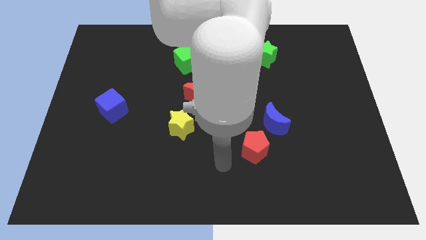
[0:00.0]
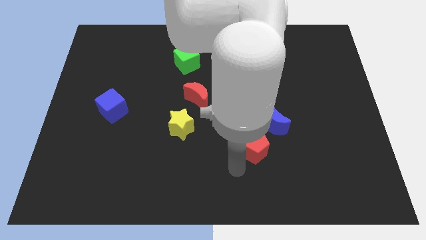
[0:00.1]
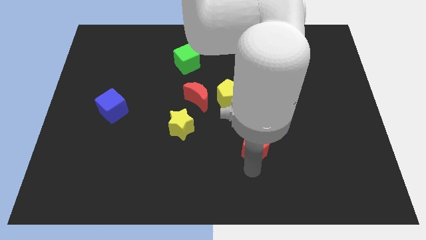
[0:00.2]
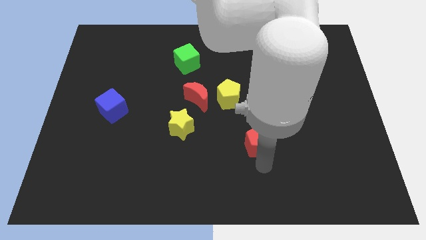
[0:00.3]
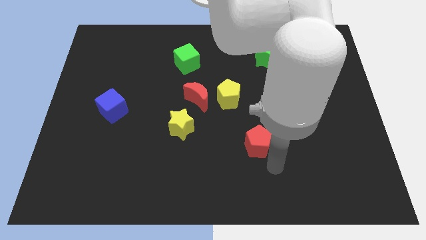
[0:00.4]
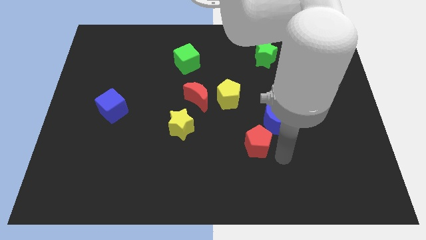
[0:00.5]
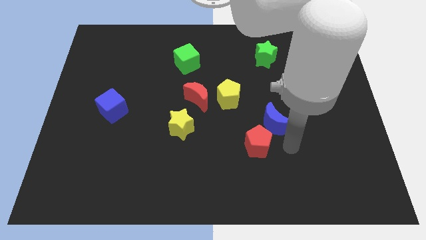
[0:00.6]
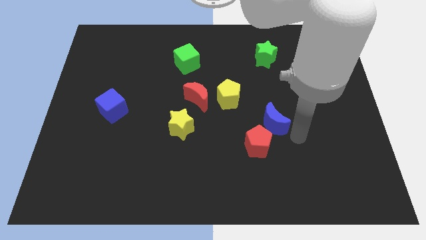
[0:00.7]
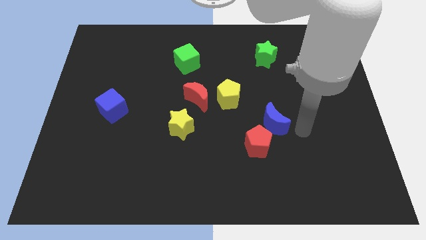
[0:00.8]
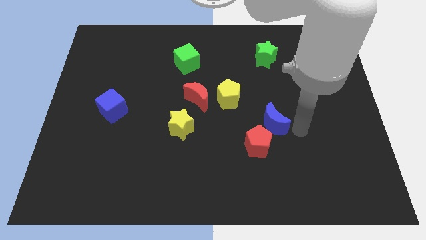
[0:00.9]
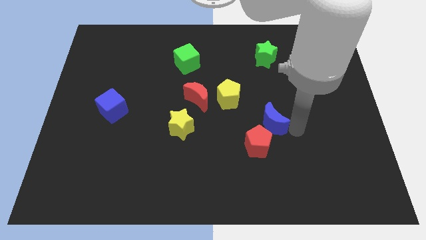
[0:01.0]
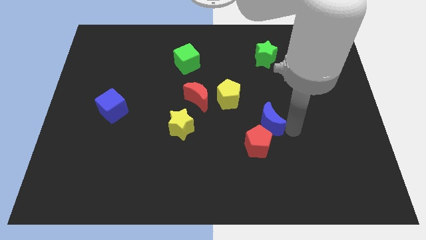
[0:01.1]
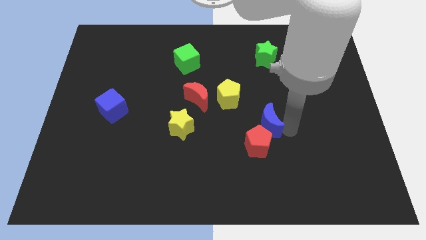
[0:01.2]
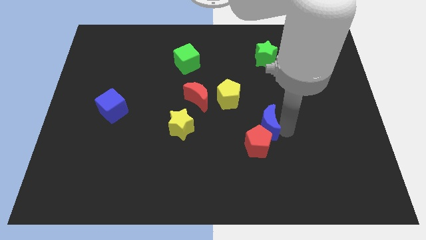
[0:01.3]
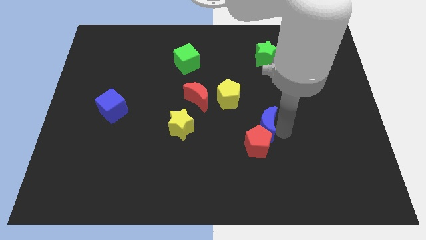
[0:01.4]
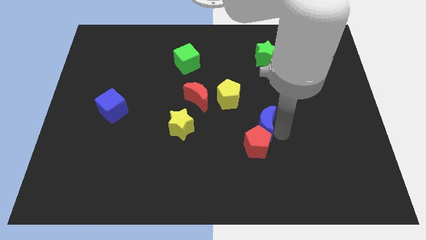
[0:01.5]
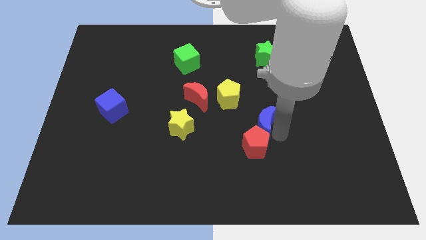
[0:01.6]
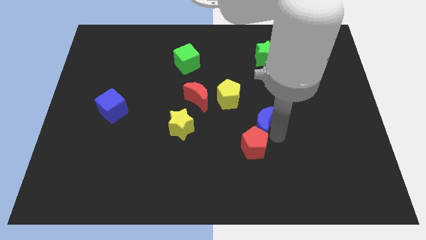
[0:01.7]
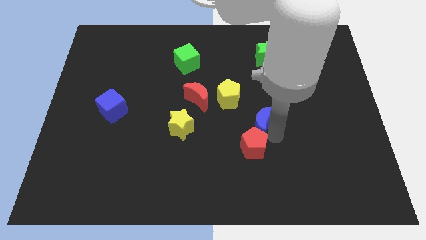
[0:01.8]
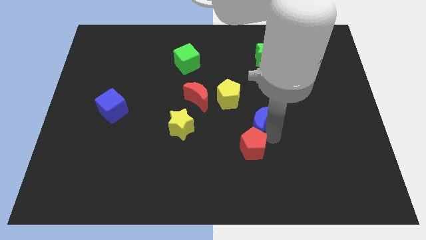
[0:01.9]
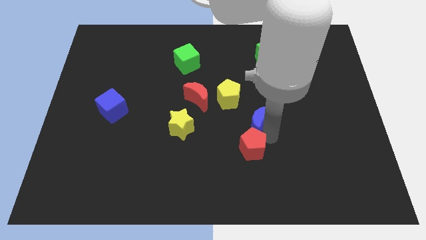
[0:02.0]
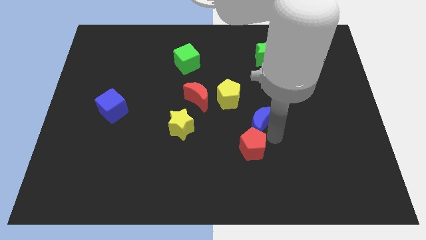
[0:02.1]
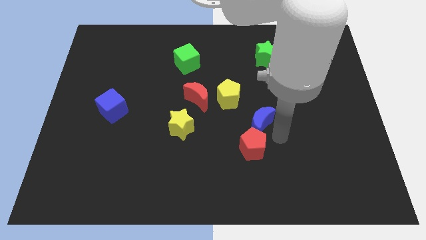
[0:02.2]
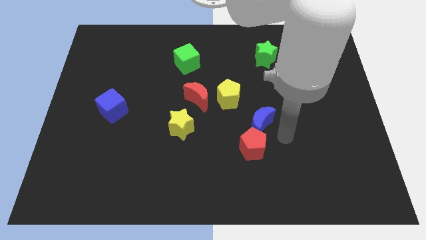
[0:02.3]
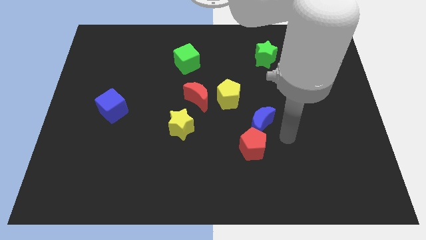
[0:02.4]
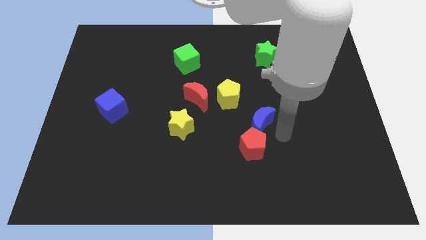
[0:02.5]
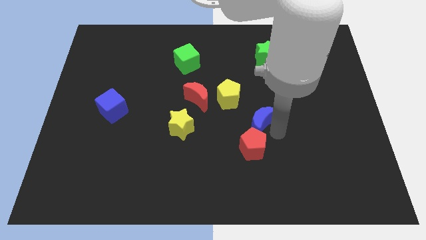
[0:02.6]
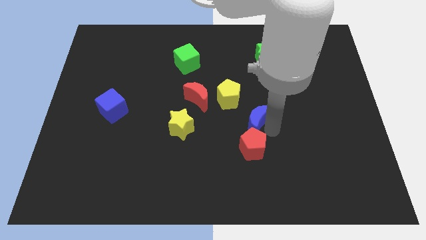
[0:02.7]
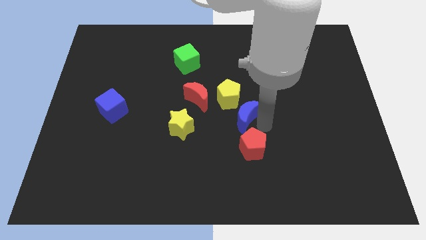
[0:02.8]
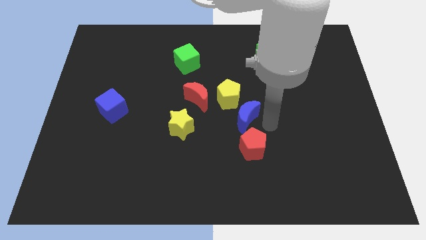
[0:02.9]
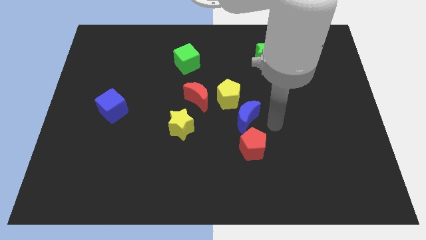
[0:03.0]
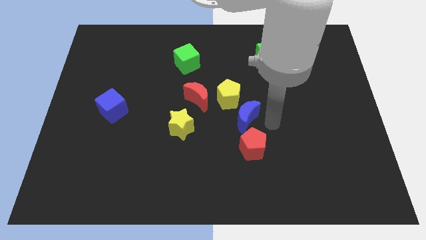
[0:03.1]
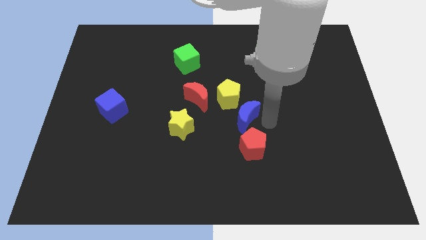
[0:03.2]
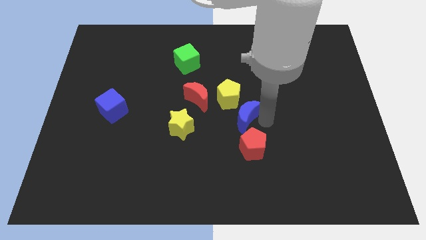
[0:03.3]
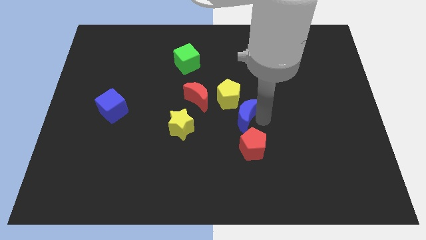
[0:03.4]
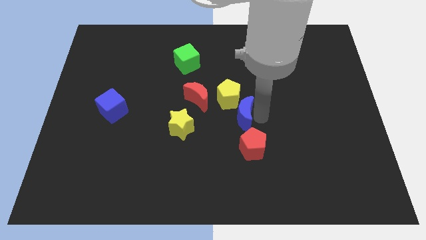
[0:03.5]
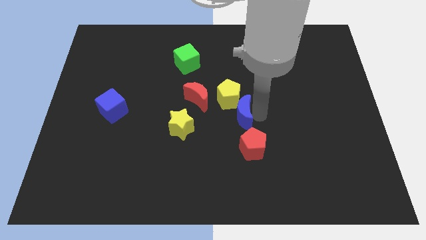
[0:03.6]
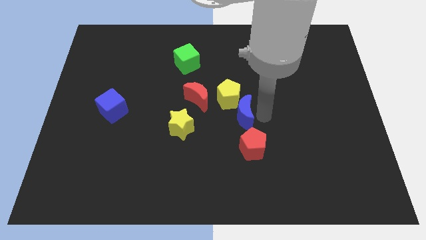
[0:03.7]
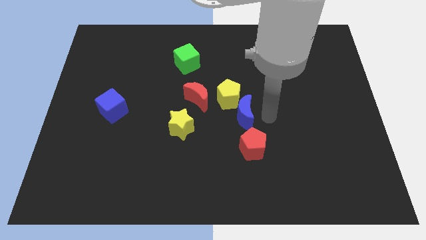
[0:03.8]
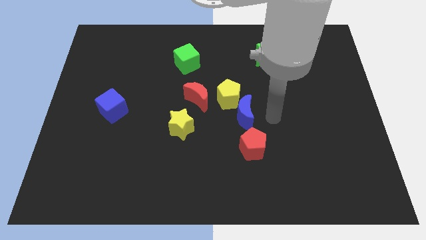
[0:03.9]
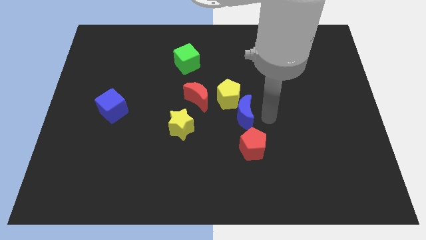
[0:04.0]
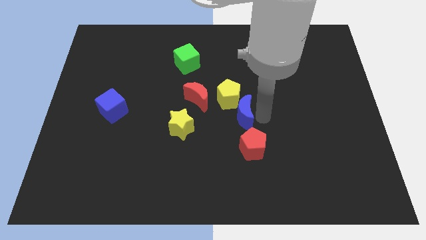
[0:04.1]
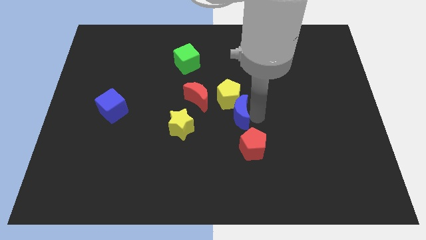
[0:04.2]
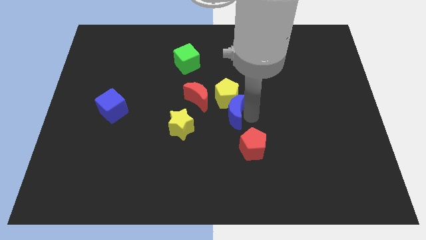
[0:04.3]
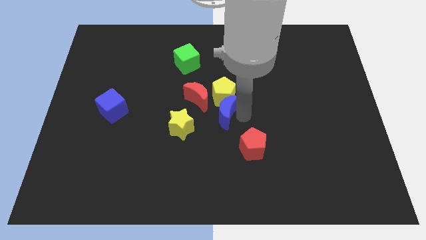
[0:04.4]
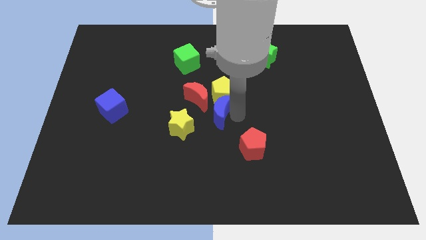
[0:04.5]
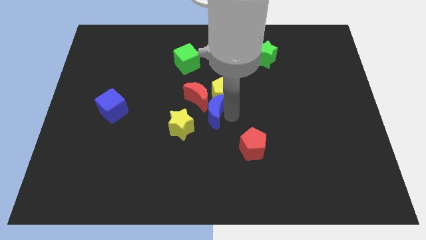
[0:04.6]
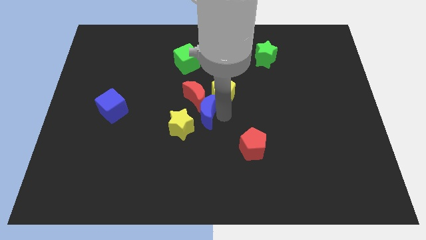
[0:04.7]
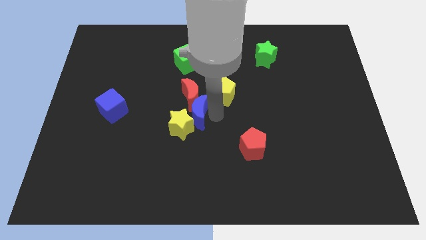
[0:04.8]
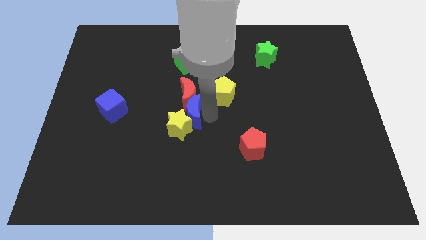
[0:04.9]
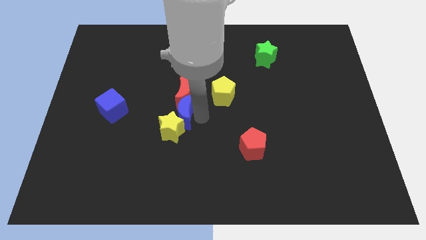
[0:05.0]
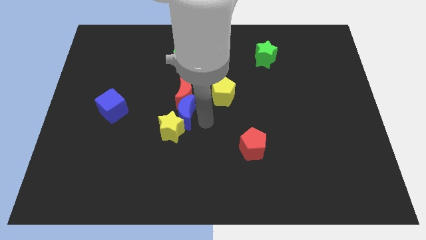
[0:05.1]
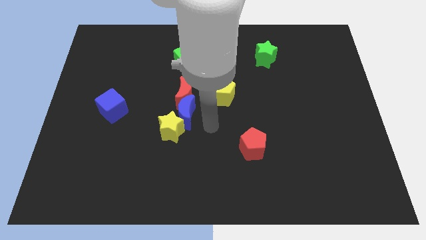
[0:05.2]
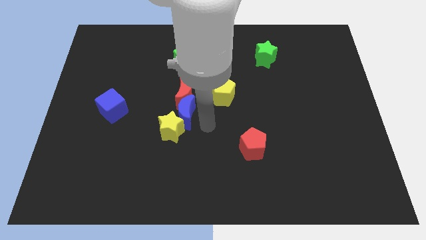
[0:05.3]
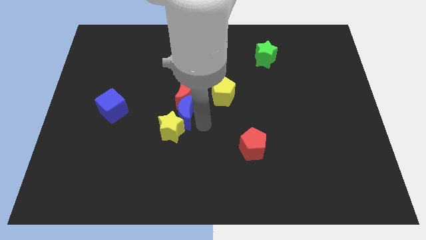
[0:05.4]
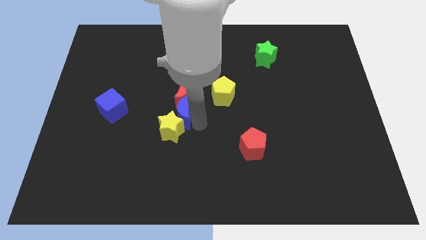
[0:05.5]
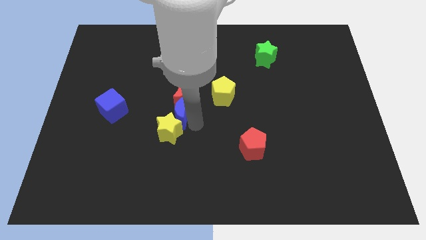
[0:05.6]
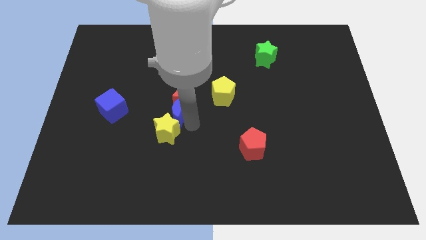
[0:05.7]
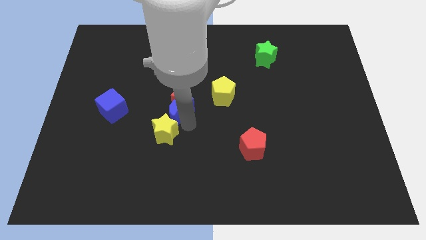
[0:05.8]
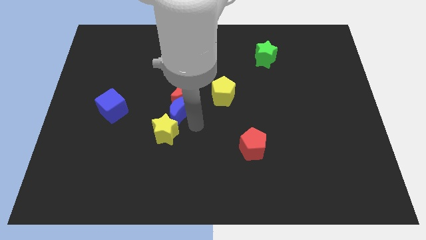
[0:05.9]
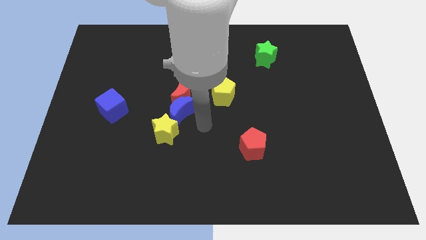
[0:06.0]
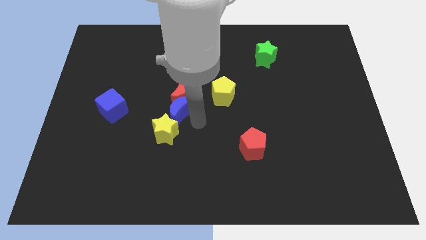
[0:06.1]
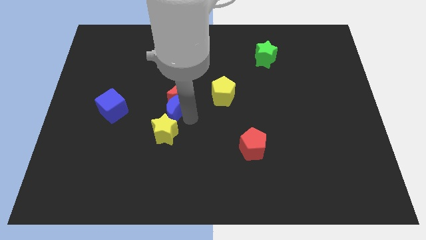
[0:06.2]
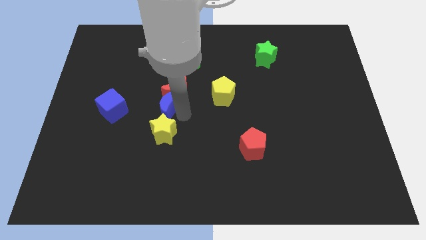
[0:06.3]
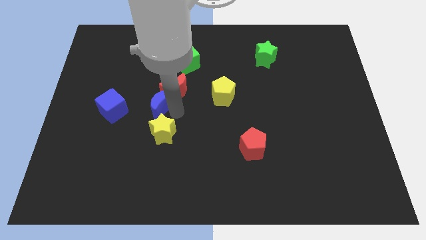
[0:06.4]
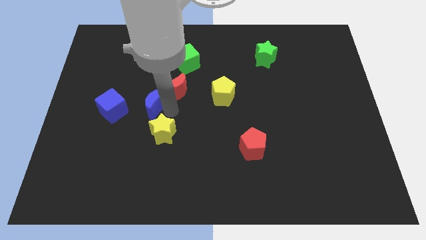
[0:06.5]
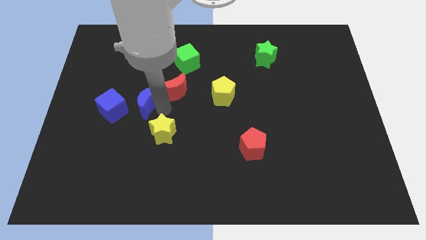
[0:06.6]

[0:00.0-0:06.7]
move the blue moon to the top right of the blue cube
